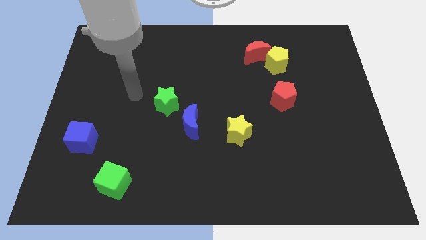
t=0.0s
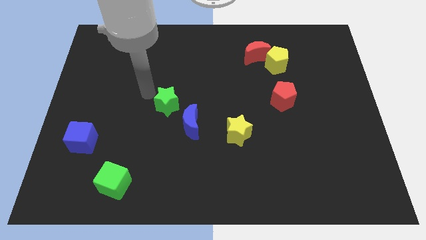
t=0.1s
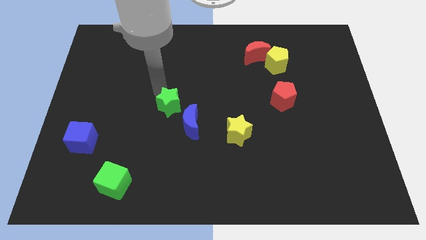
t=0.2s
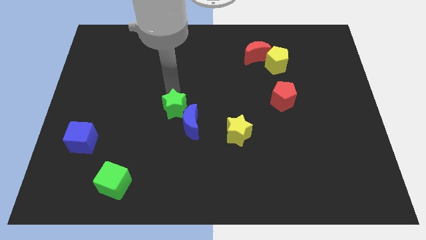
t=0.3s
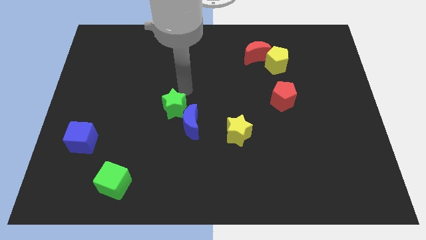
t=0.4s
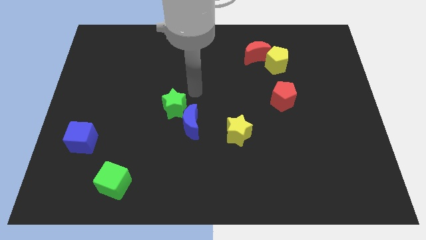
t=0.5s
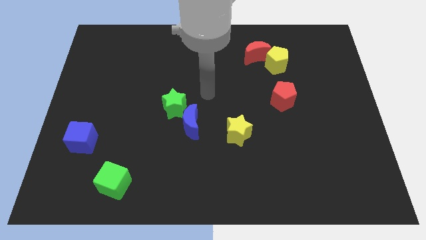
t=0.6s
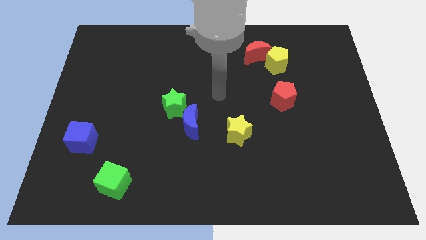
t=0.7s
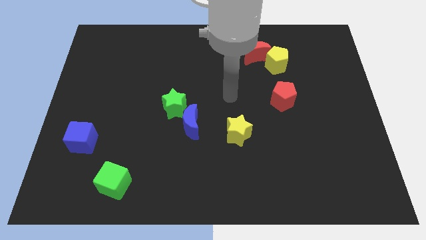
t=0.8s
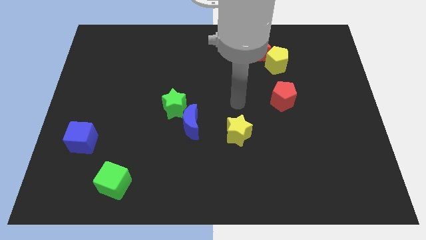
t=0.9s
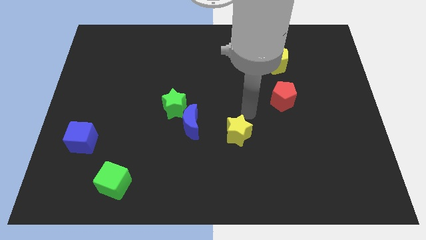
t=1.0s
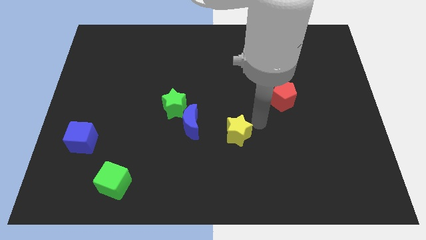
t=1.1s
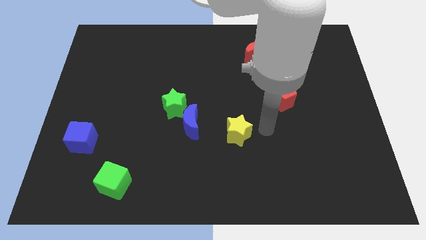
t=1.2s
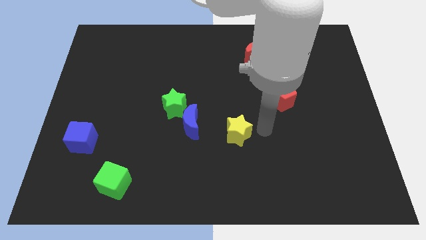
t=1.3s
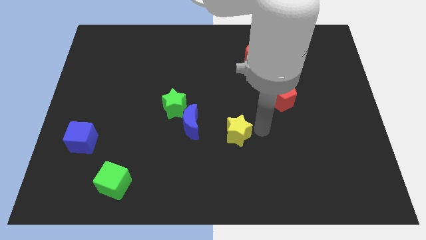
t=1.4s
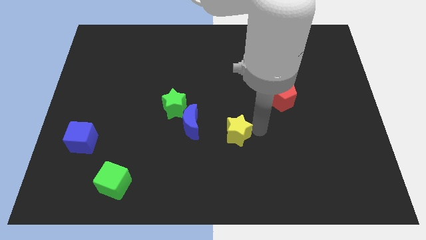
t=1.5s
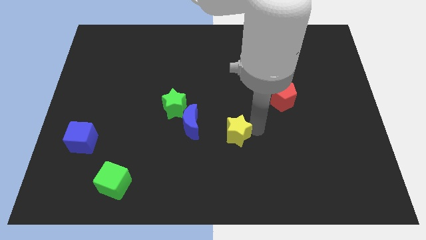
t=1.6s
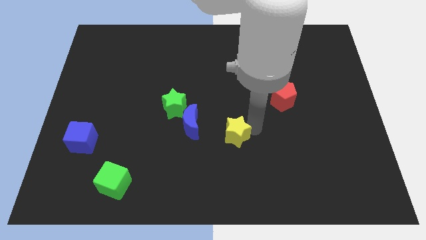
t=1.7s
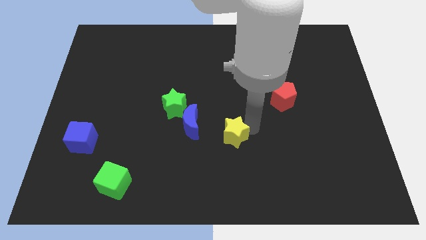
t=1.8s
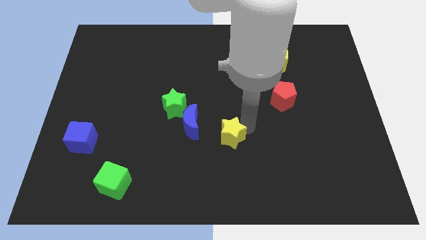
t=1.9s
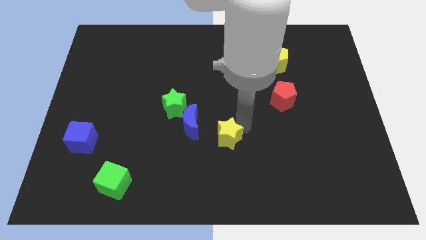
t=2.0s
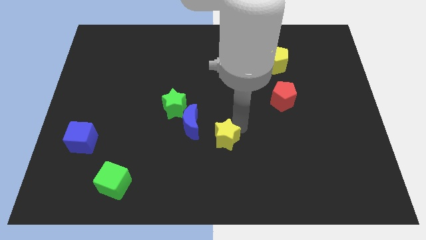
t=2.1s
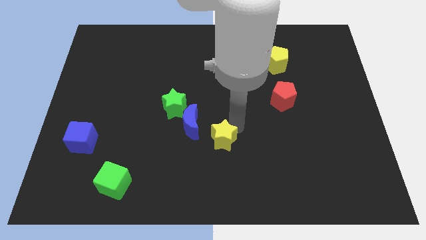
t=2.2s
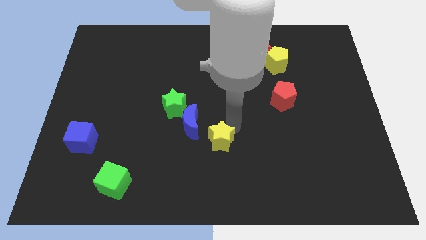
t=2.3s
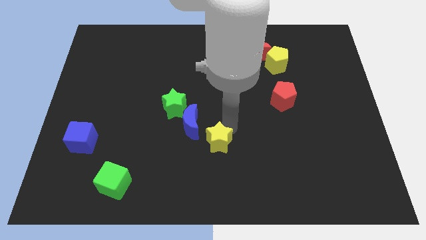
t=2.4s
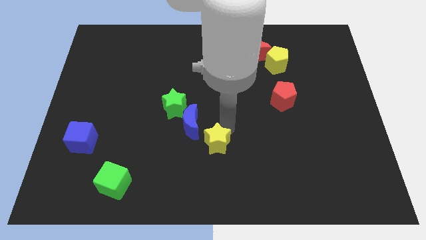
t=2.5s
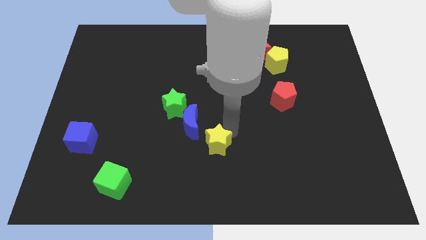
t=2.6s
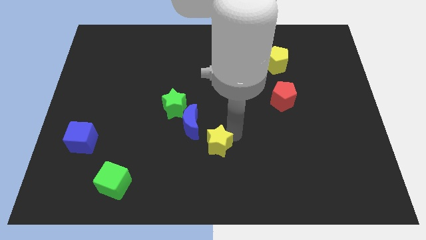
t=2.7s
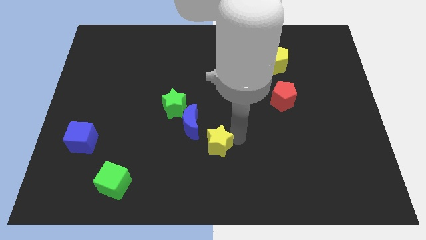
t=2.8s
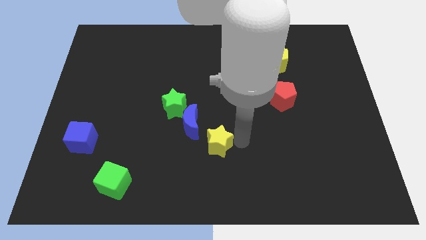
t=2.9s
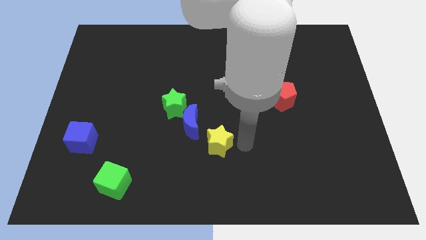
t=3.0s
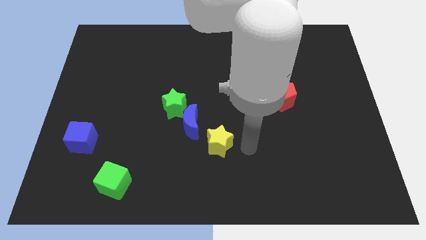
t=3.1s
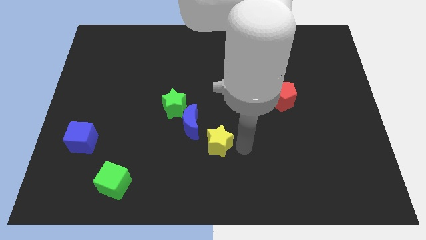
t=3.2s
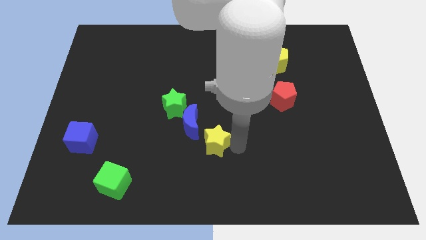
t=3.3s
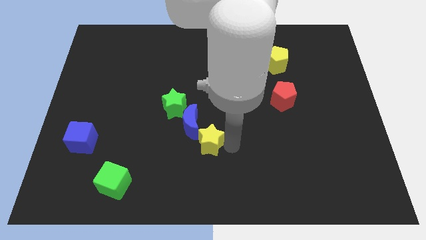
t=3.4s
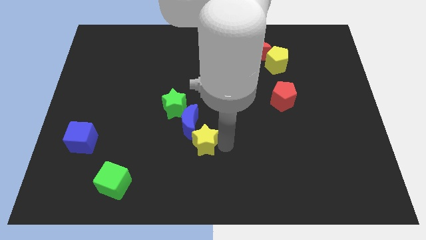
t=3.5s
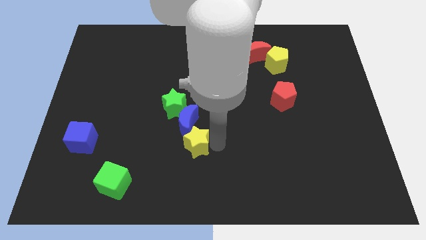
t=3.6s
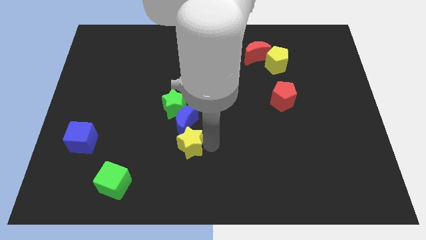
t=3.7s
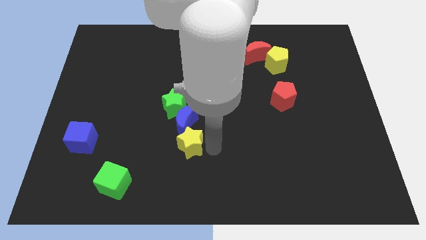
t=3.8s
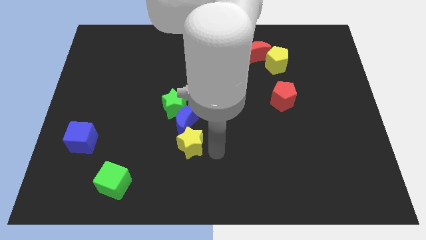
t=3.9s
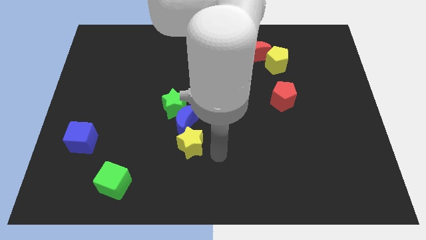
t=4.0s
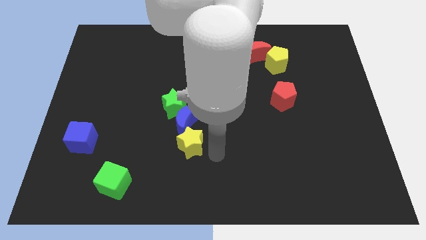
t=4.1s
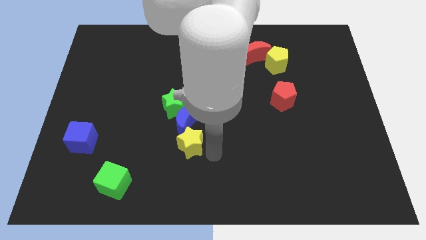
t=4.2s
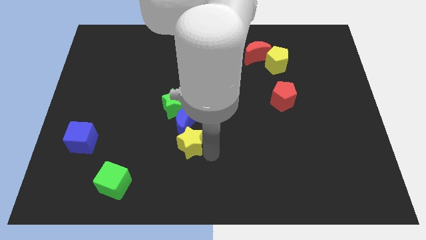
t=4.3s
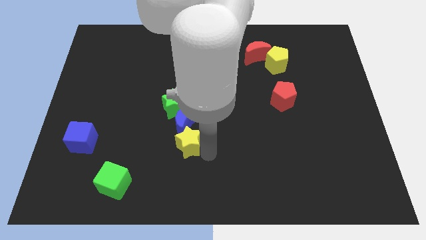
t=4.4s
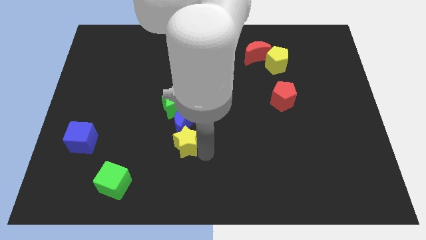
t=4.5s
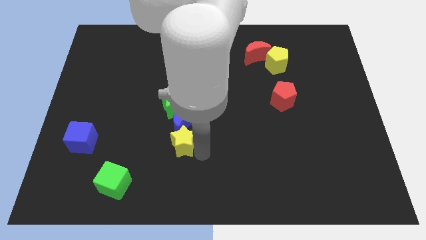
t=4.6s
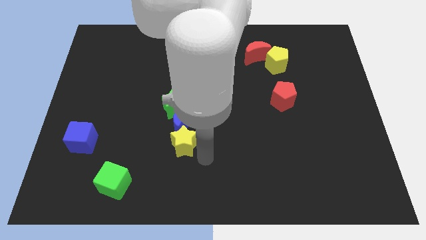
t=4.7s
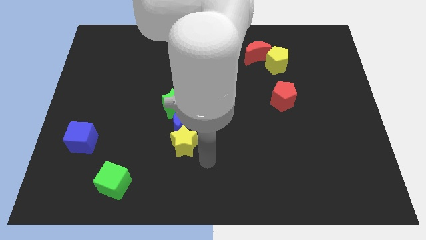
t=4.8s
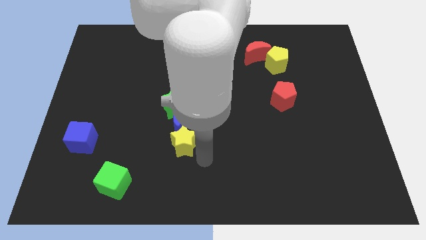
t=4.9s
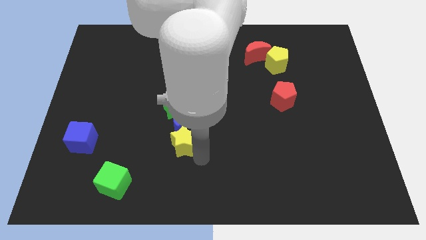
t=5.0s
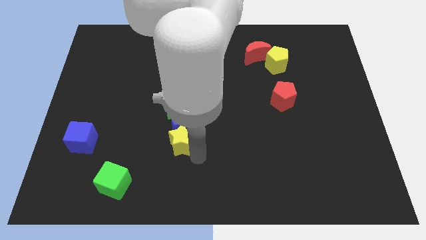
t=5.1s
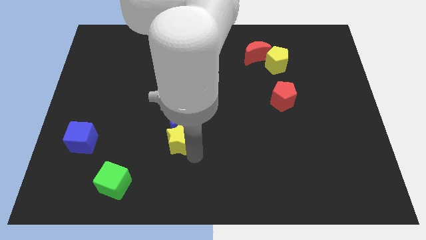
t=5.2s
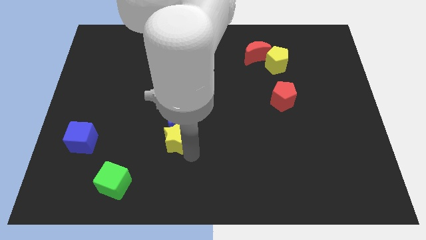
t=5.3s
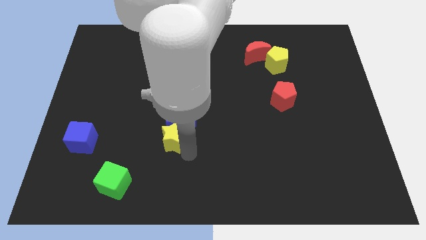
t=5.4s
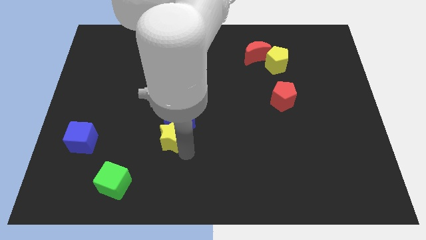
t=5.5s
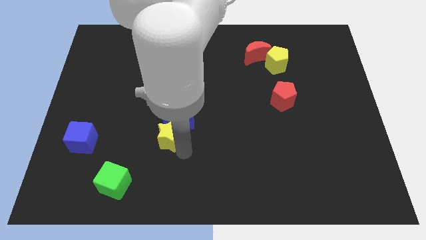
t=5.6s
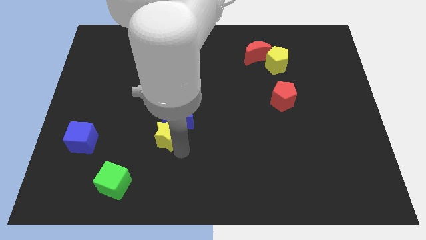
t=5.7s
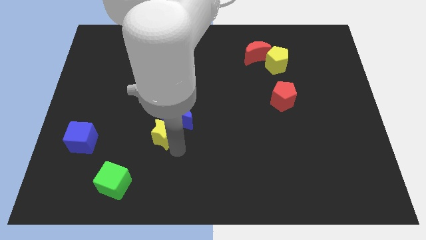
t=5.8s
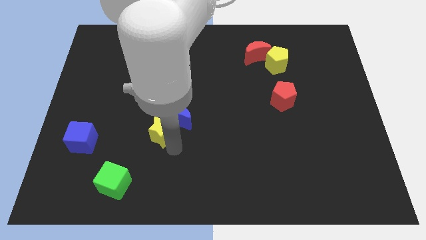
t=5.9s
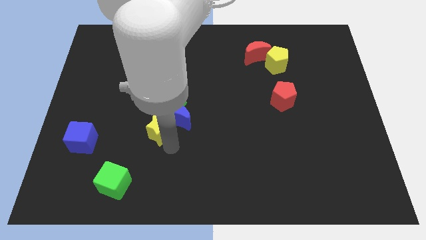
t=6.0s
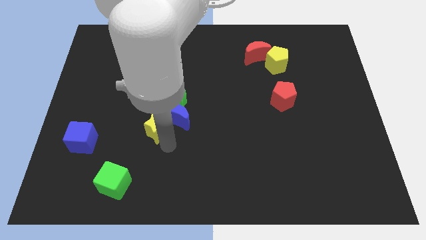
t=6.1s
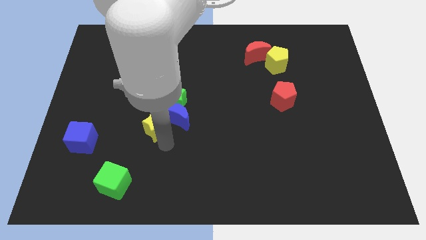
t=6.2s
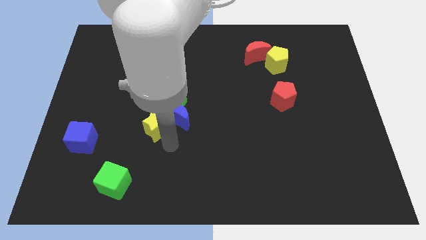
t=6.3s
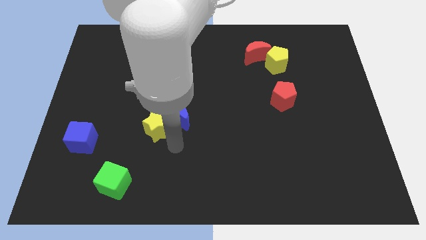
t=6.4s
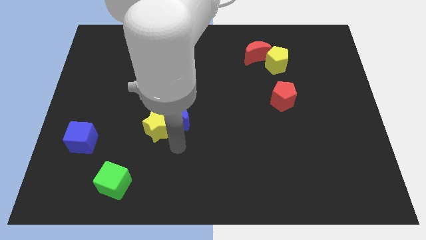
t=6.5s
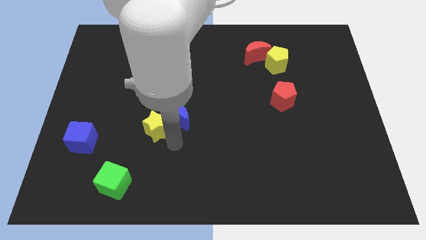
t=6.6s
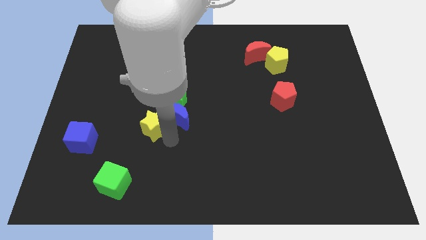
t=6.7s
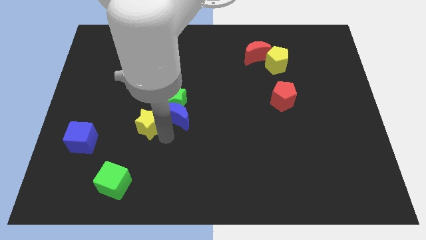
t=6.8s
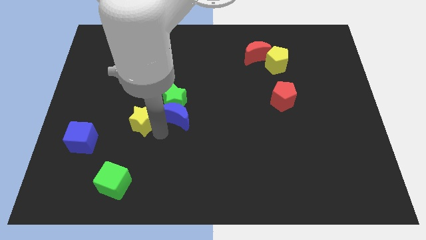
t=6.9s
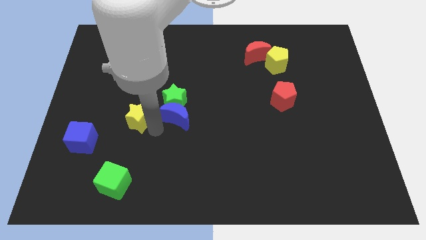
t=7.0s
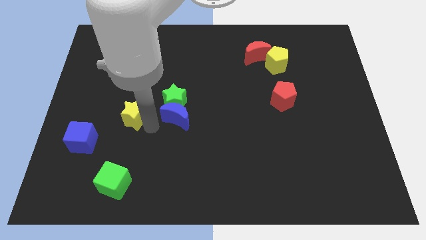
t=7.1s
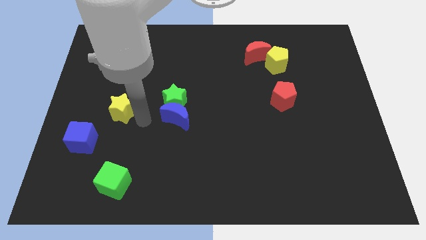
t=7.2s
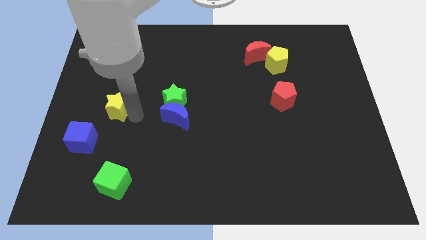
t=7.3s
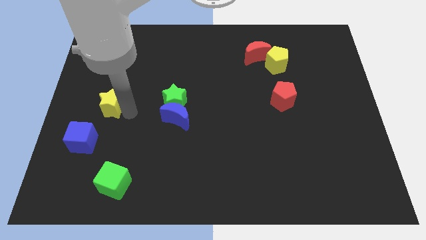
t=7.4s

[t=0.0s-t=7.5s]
move the yellow star to the top of the blue cube
